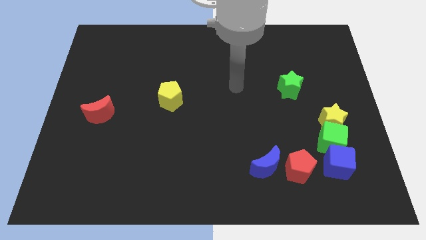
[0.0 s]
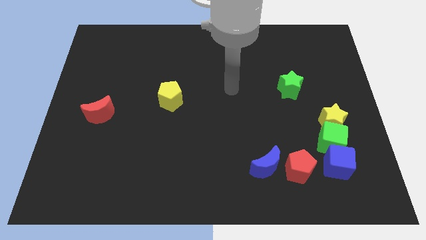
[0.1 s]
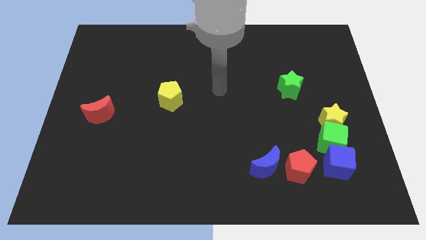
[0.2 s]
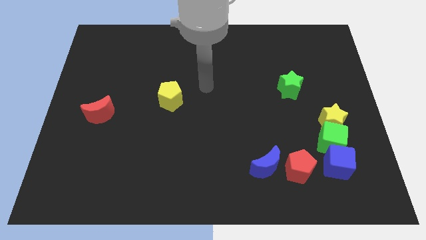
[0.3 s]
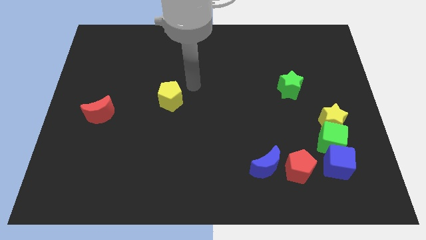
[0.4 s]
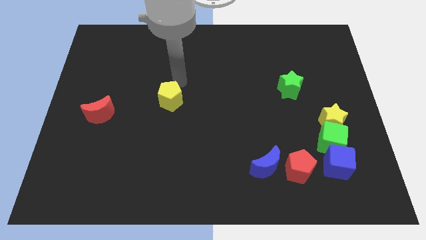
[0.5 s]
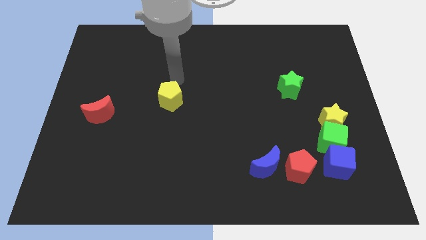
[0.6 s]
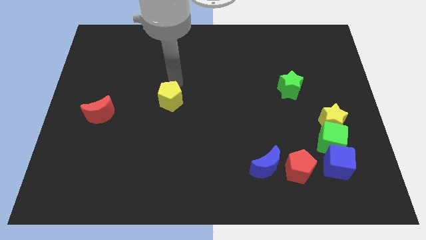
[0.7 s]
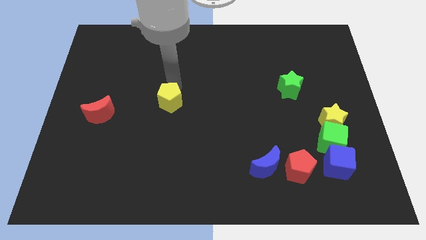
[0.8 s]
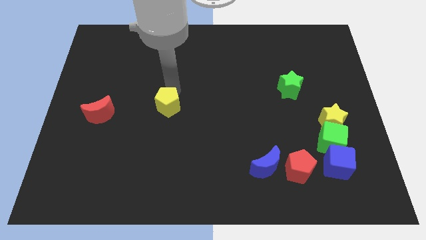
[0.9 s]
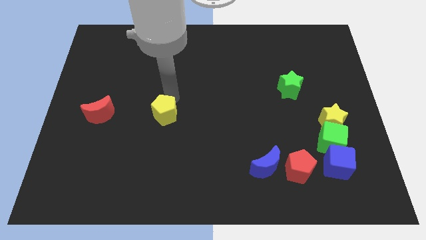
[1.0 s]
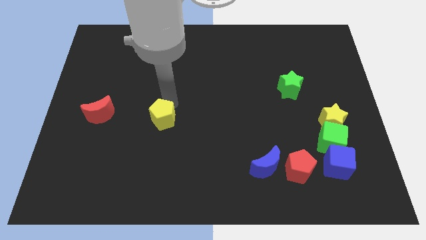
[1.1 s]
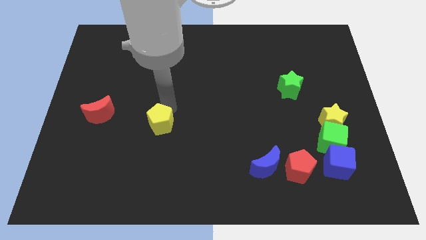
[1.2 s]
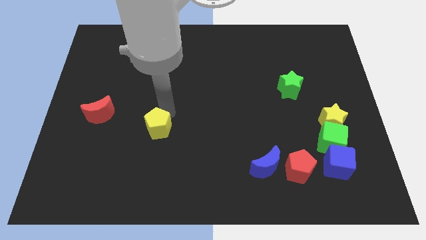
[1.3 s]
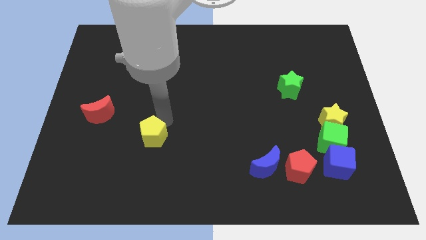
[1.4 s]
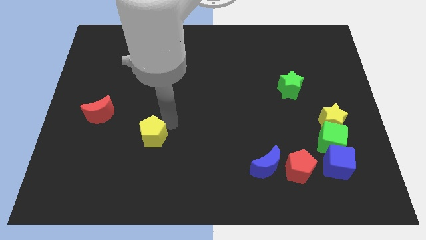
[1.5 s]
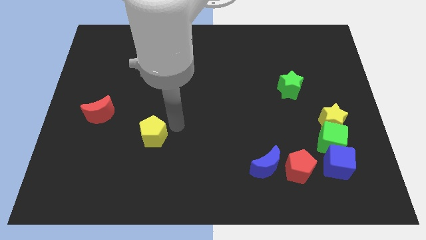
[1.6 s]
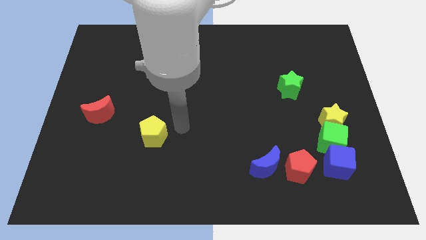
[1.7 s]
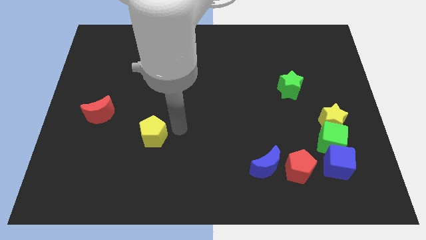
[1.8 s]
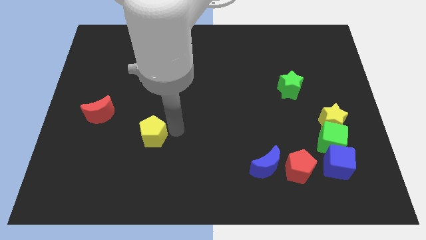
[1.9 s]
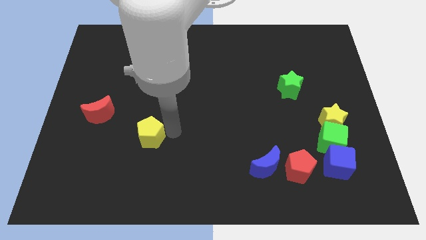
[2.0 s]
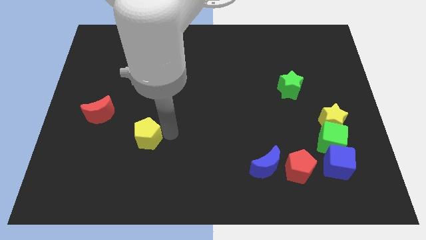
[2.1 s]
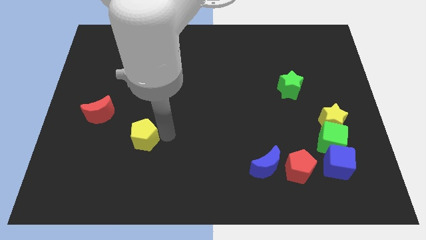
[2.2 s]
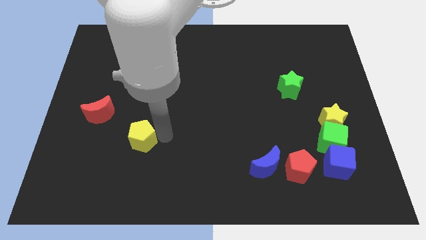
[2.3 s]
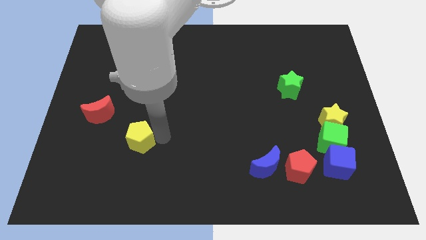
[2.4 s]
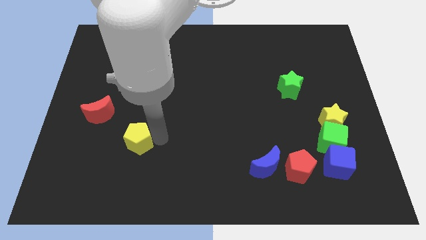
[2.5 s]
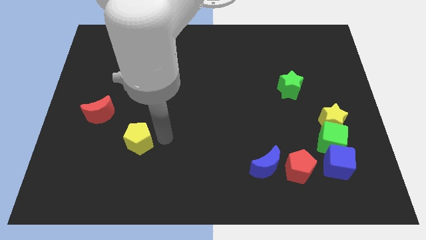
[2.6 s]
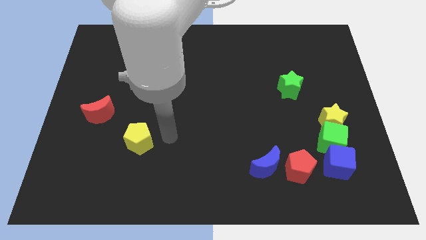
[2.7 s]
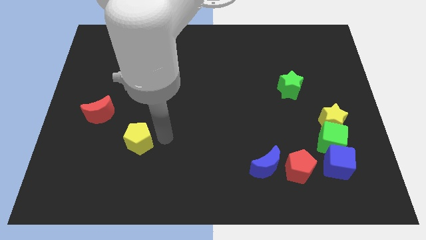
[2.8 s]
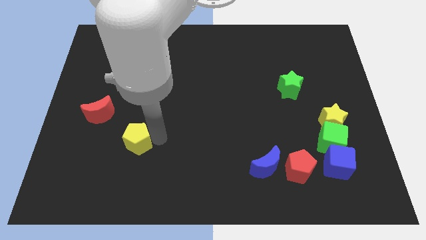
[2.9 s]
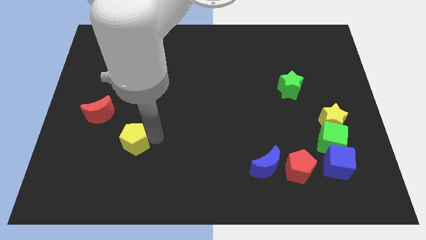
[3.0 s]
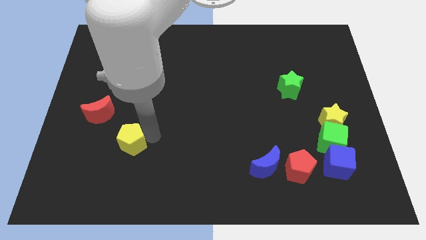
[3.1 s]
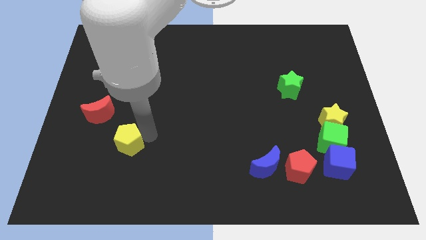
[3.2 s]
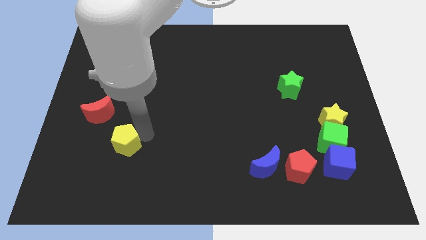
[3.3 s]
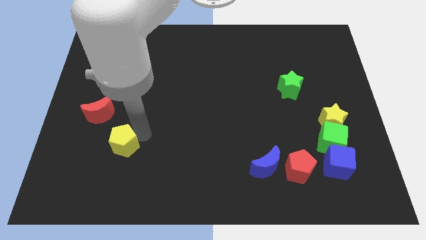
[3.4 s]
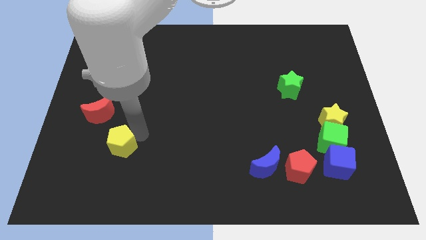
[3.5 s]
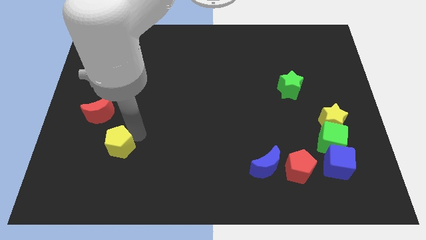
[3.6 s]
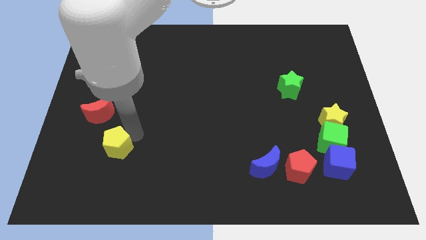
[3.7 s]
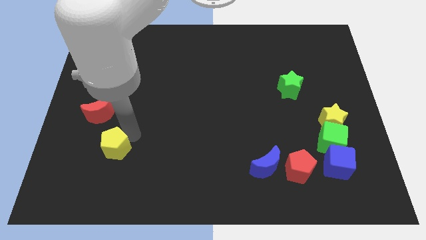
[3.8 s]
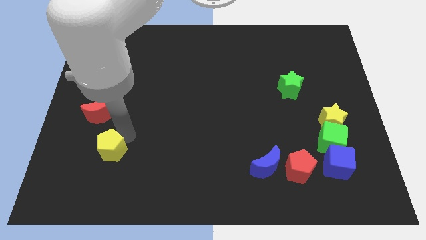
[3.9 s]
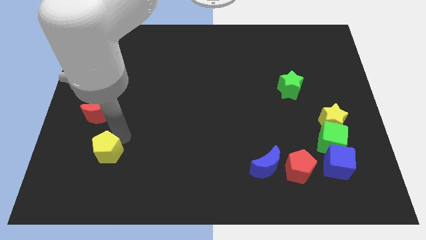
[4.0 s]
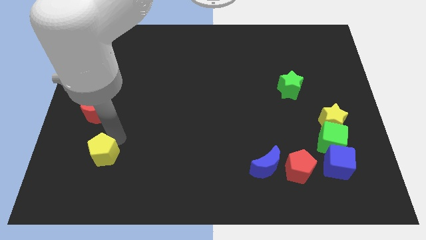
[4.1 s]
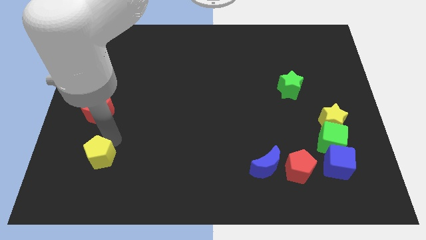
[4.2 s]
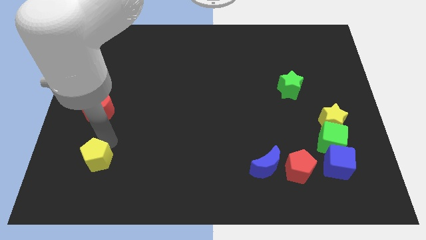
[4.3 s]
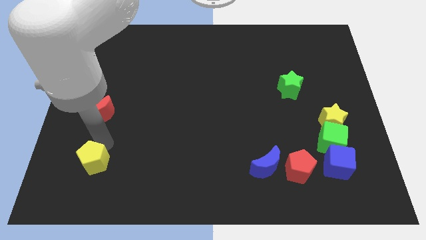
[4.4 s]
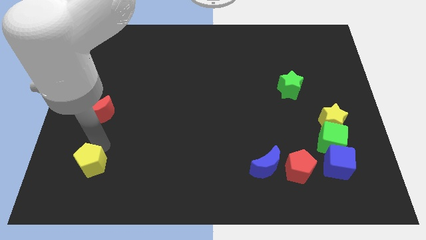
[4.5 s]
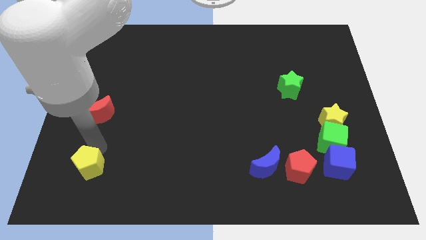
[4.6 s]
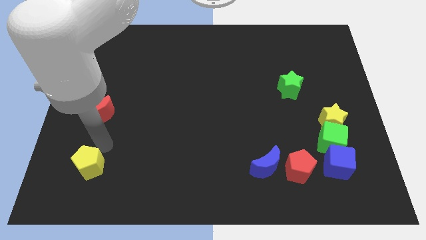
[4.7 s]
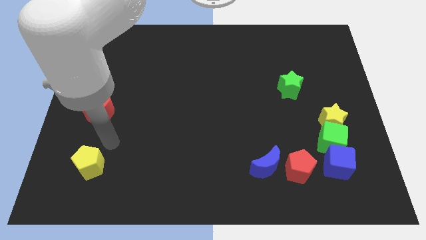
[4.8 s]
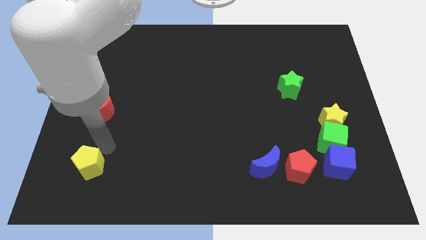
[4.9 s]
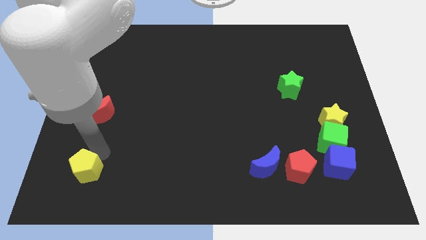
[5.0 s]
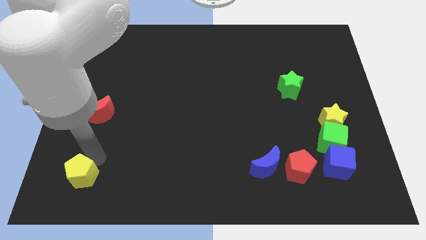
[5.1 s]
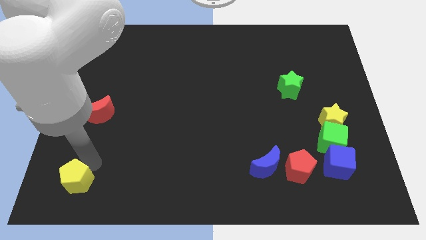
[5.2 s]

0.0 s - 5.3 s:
slide the yellow pentagon to the bottom left

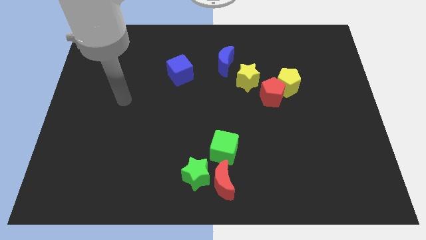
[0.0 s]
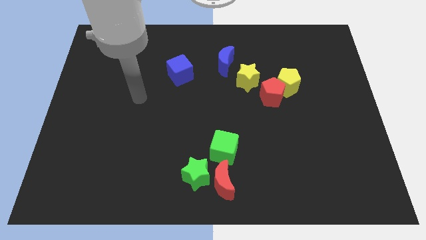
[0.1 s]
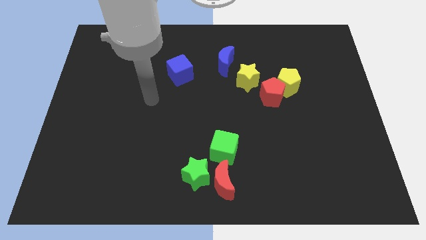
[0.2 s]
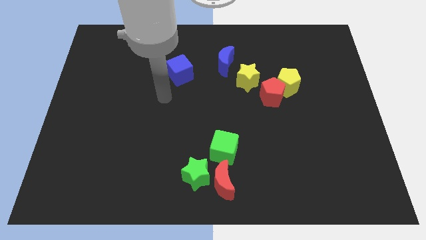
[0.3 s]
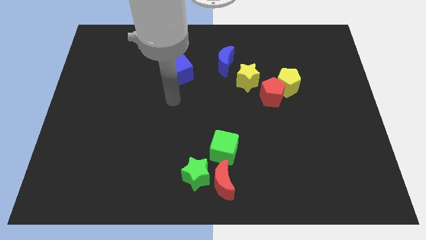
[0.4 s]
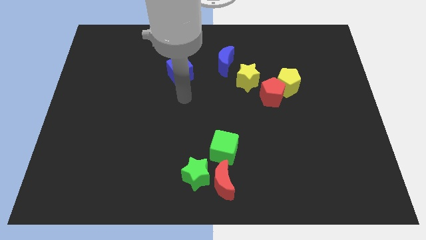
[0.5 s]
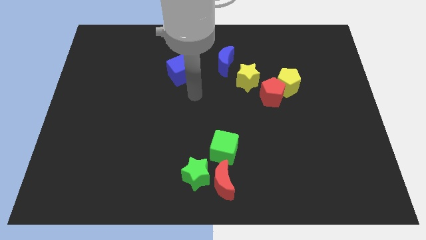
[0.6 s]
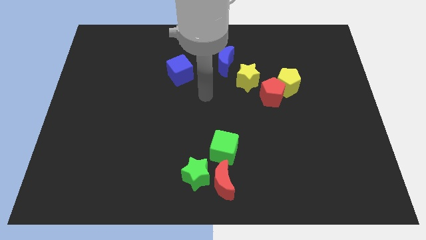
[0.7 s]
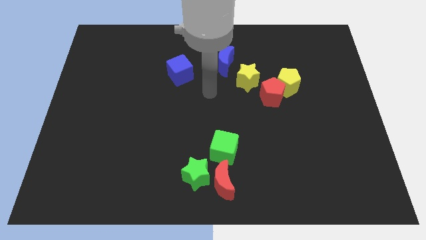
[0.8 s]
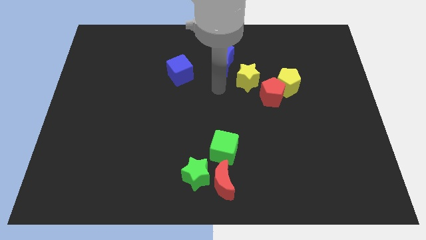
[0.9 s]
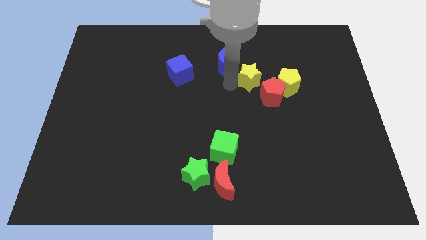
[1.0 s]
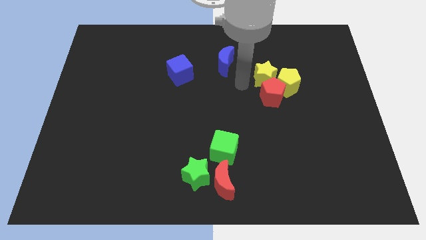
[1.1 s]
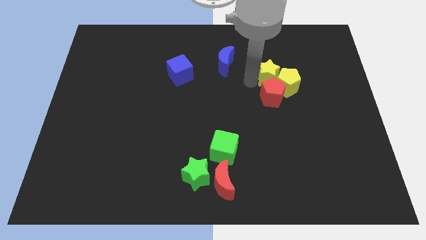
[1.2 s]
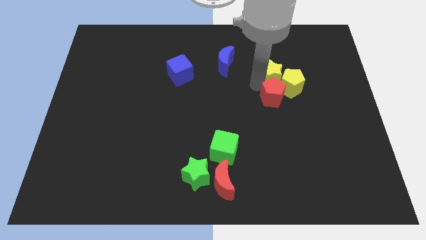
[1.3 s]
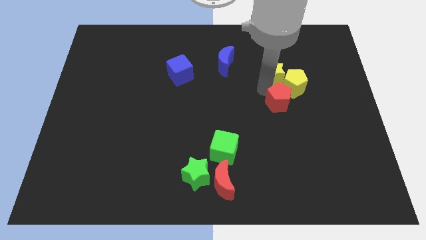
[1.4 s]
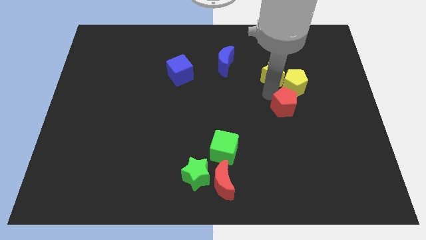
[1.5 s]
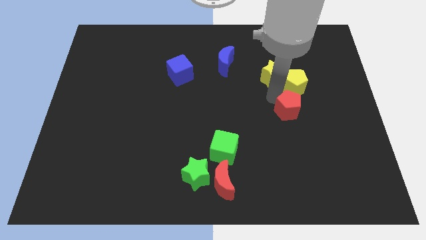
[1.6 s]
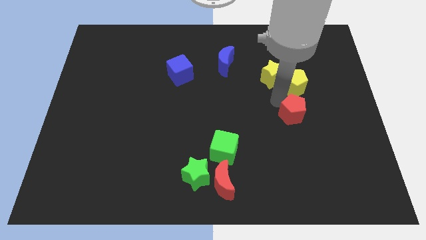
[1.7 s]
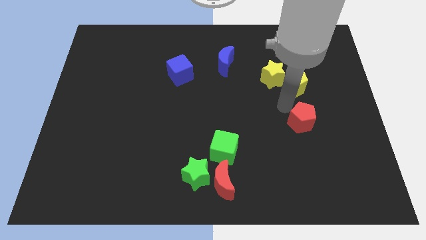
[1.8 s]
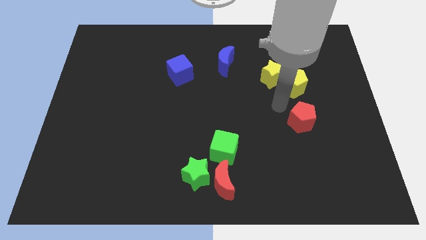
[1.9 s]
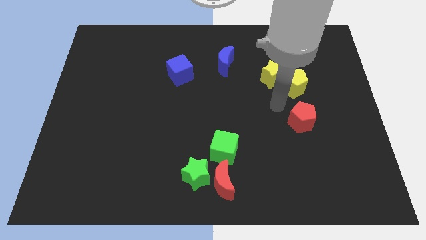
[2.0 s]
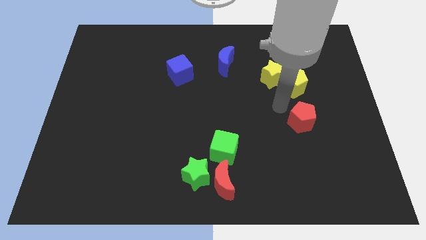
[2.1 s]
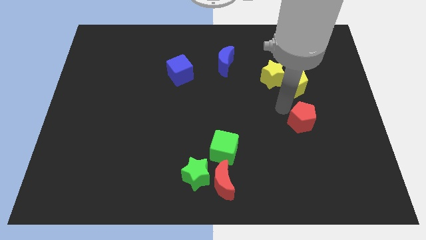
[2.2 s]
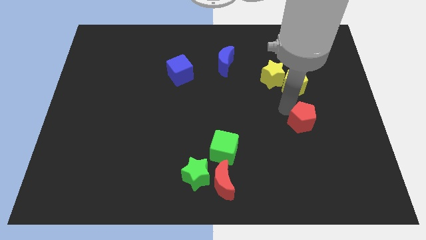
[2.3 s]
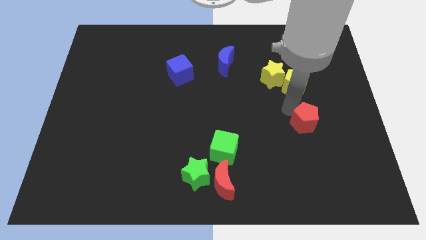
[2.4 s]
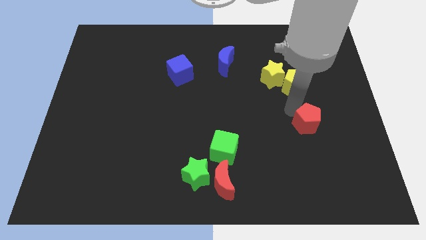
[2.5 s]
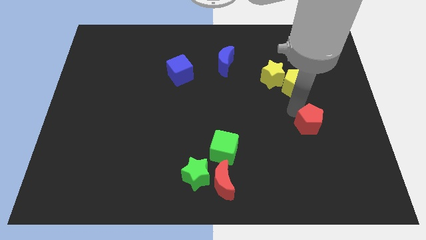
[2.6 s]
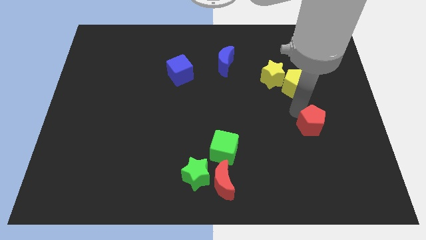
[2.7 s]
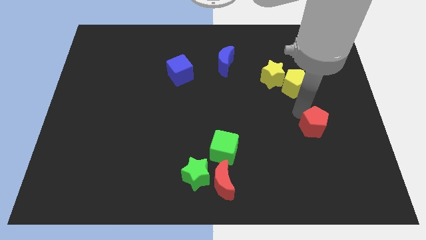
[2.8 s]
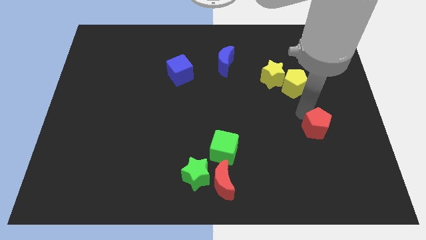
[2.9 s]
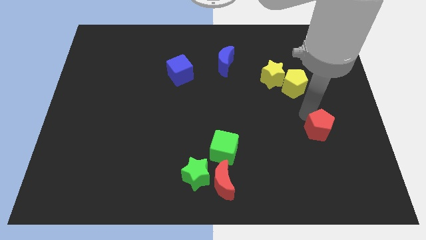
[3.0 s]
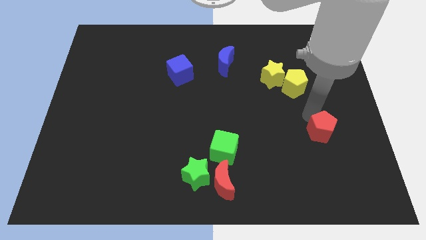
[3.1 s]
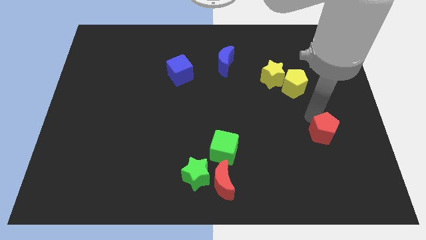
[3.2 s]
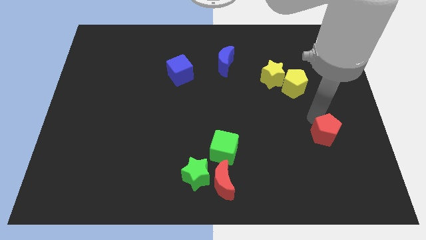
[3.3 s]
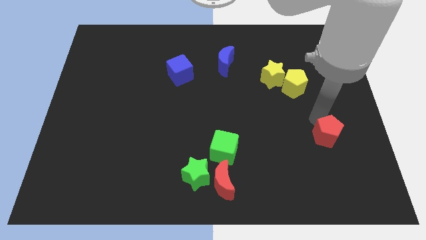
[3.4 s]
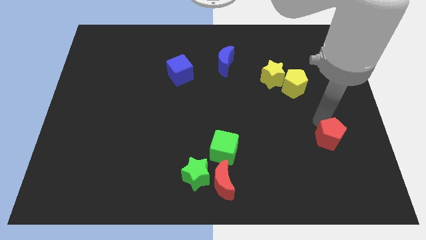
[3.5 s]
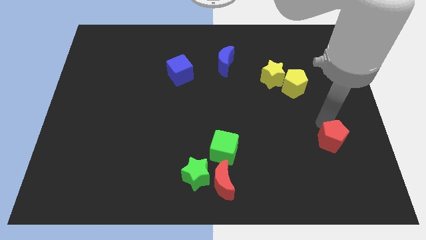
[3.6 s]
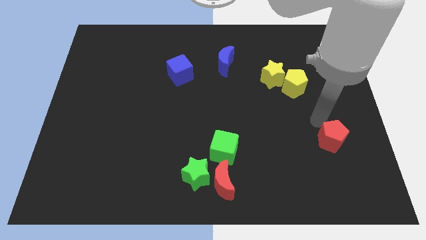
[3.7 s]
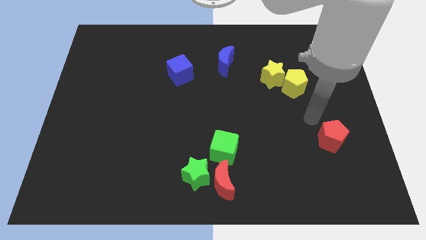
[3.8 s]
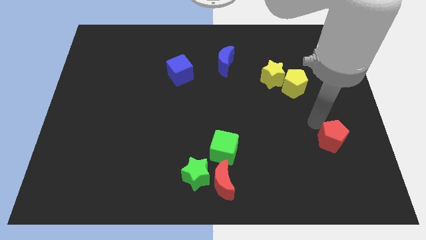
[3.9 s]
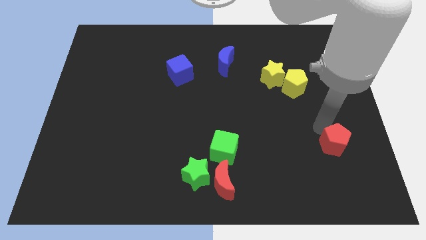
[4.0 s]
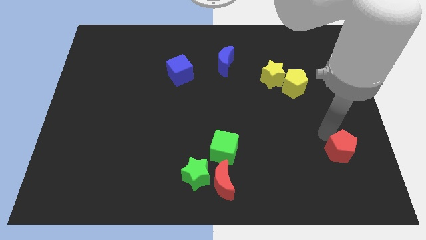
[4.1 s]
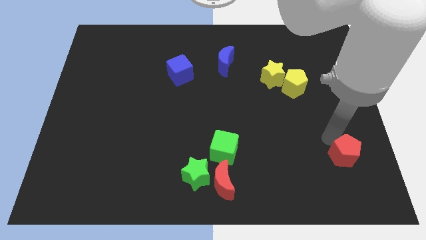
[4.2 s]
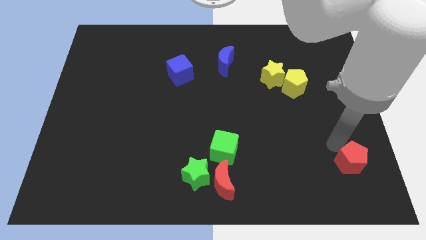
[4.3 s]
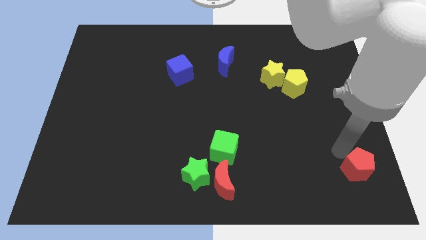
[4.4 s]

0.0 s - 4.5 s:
put the red pentagon to the bottom right
